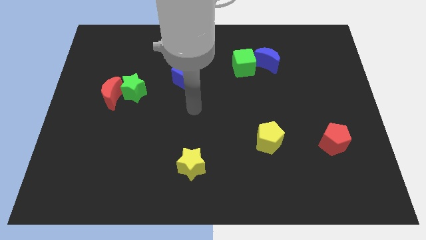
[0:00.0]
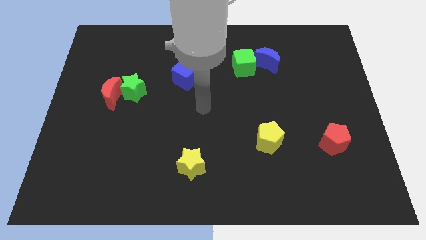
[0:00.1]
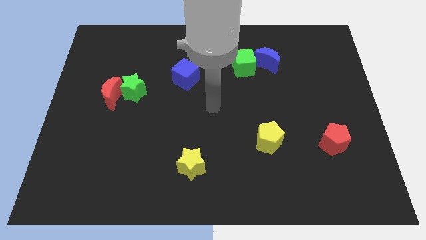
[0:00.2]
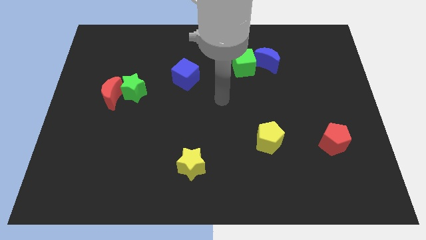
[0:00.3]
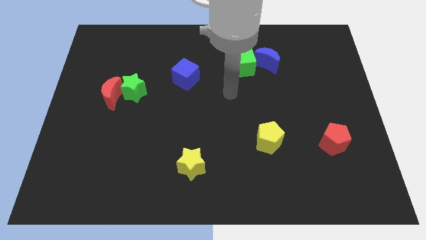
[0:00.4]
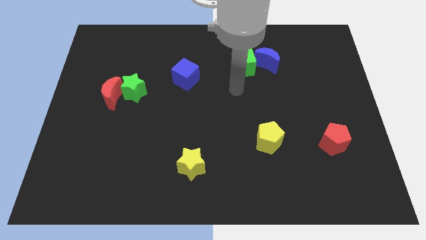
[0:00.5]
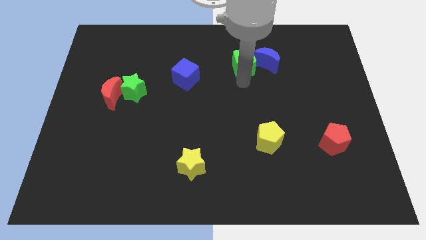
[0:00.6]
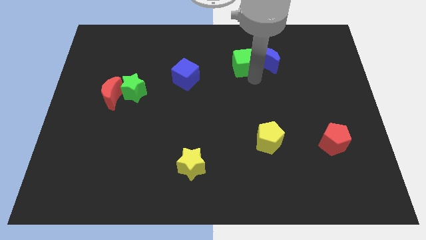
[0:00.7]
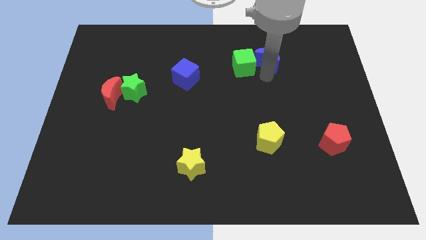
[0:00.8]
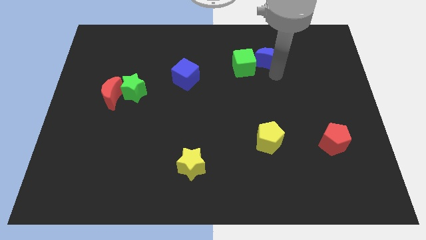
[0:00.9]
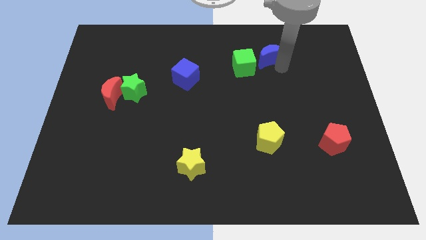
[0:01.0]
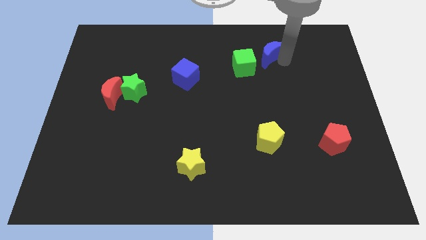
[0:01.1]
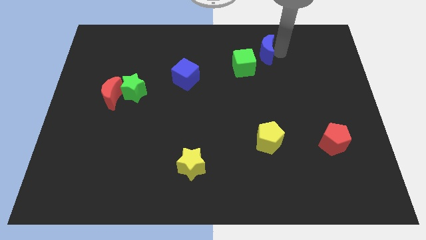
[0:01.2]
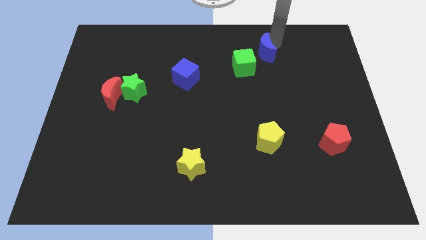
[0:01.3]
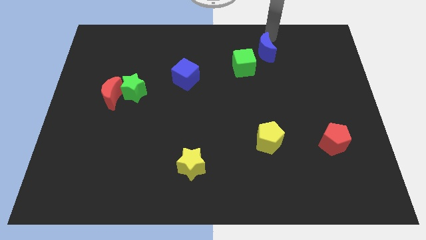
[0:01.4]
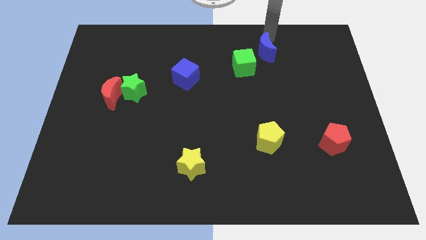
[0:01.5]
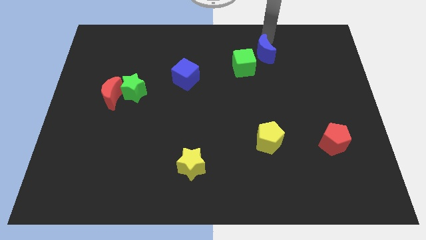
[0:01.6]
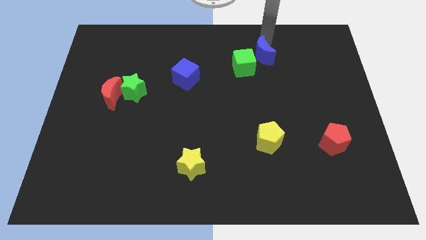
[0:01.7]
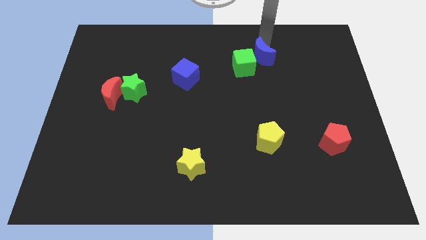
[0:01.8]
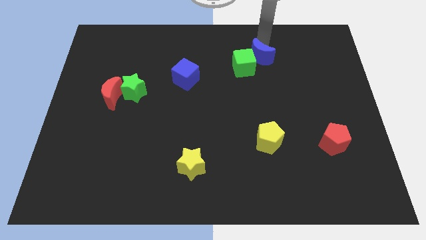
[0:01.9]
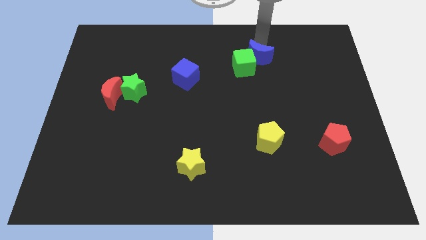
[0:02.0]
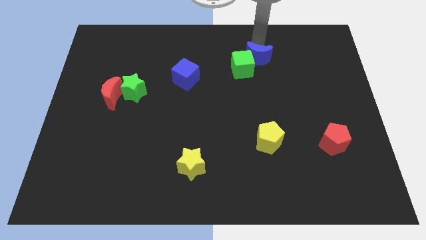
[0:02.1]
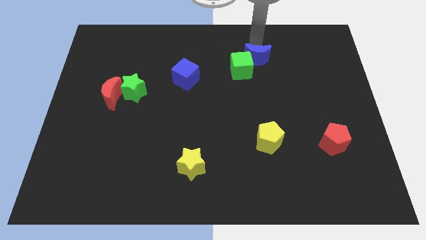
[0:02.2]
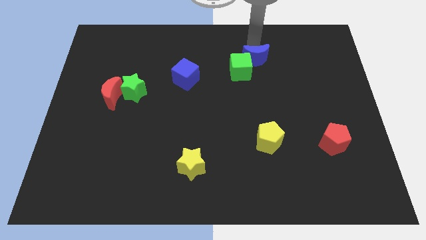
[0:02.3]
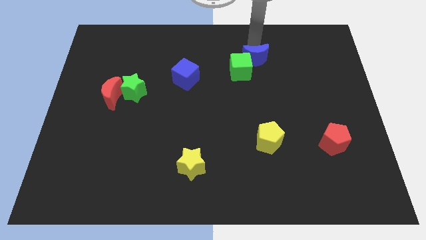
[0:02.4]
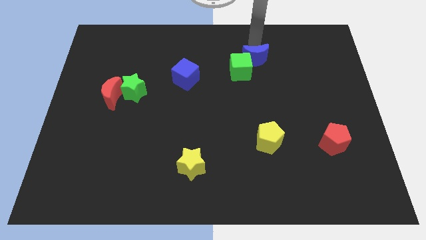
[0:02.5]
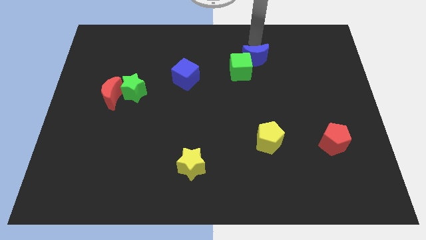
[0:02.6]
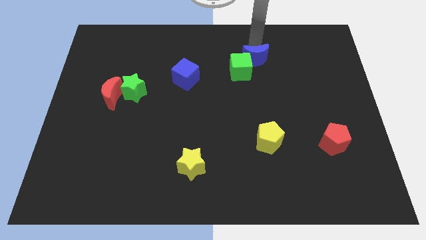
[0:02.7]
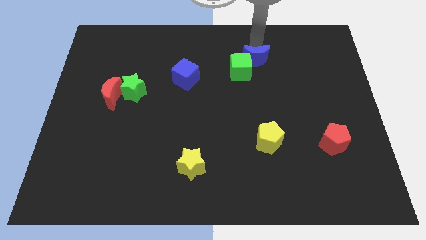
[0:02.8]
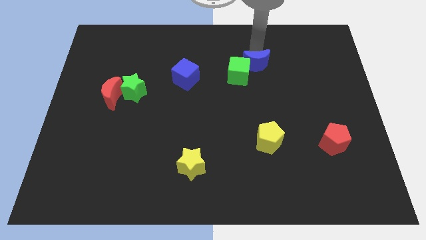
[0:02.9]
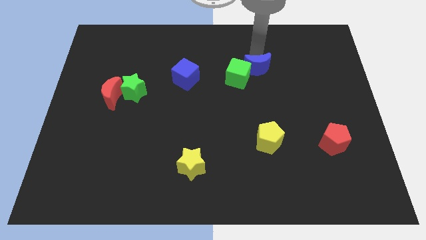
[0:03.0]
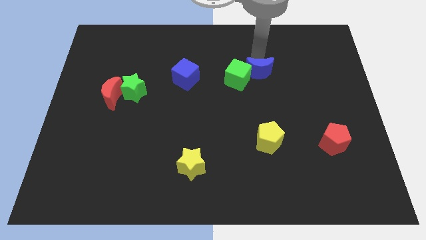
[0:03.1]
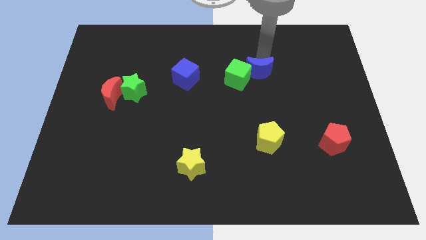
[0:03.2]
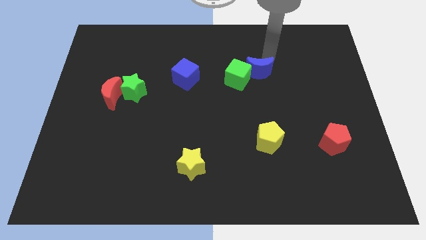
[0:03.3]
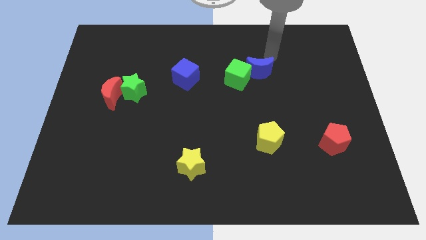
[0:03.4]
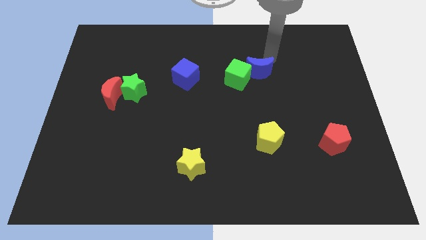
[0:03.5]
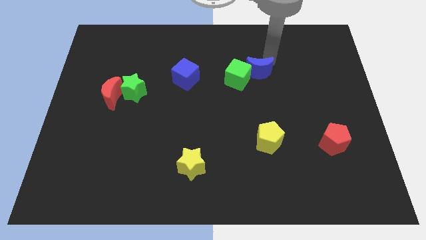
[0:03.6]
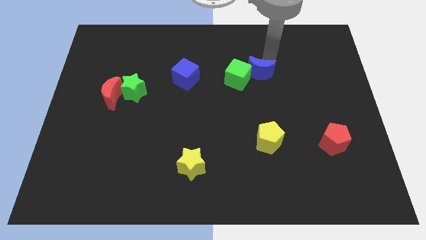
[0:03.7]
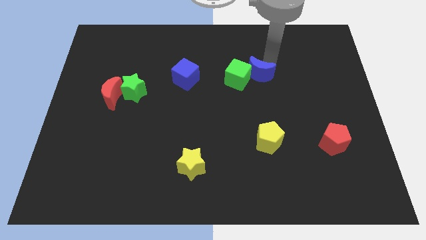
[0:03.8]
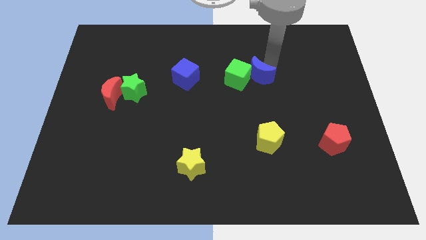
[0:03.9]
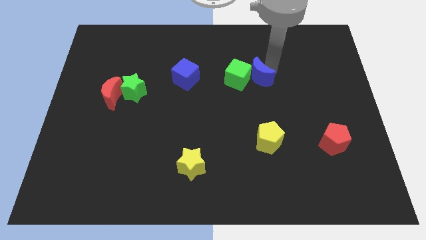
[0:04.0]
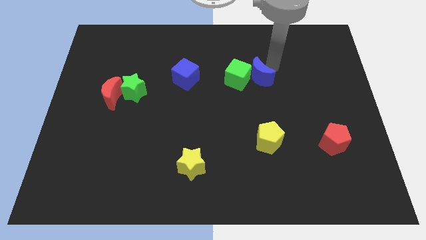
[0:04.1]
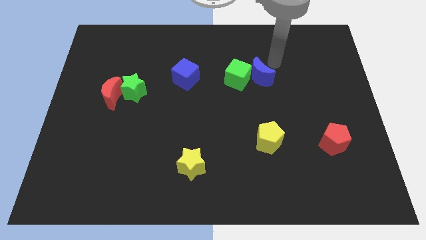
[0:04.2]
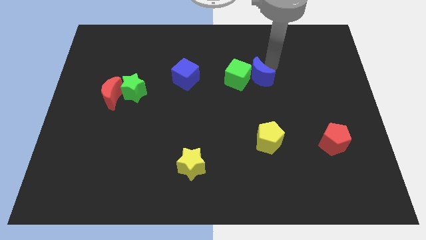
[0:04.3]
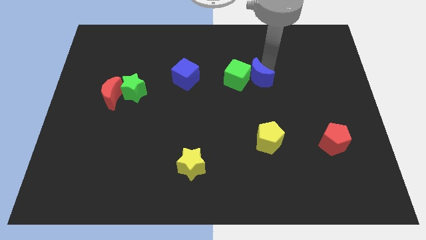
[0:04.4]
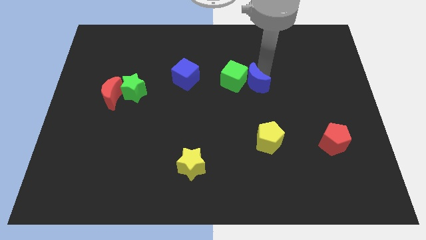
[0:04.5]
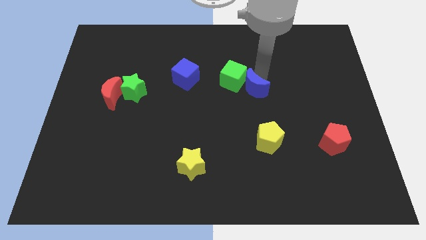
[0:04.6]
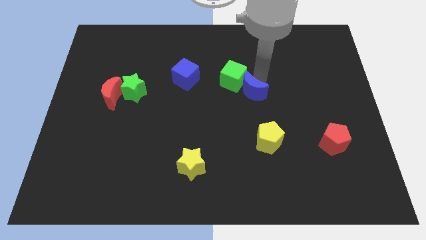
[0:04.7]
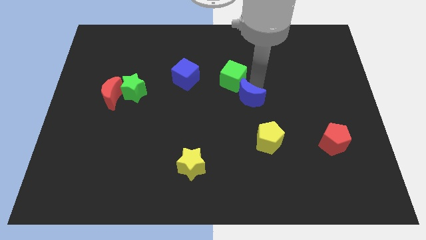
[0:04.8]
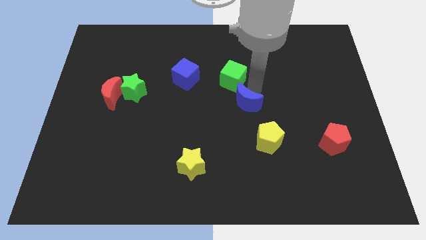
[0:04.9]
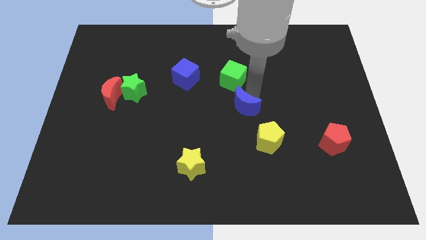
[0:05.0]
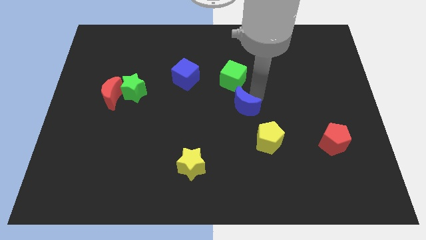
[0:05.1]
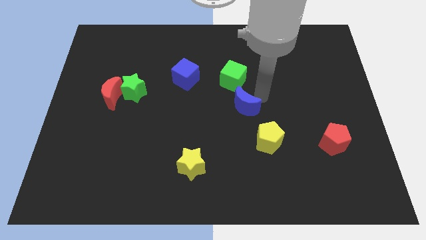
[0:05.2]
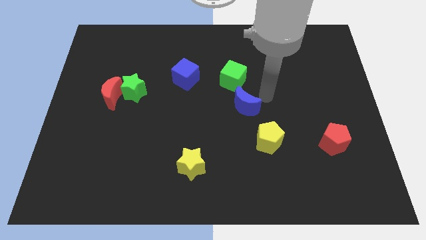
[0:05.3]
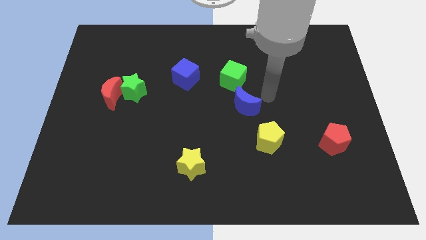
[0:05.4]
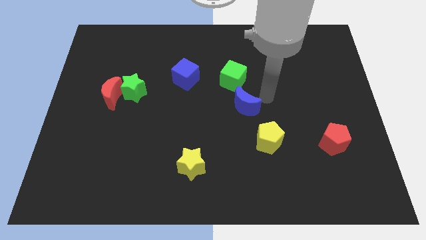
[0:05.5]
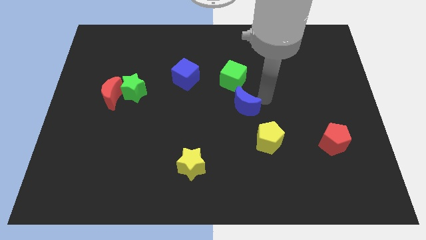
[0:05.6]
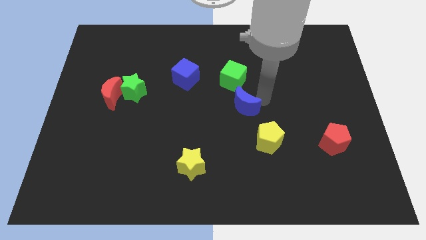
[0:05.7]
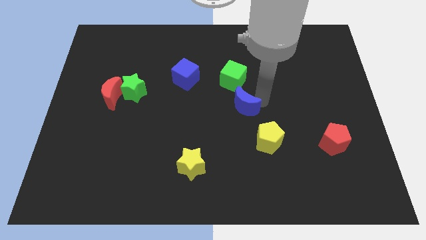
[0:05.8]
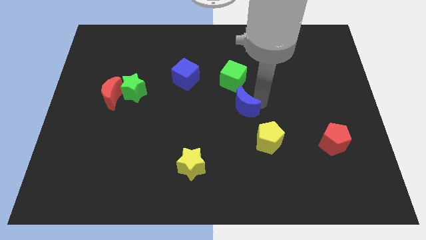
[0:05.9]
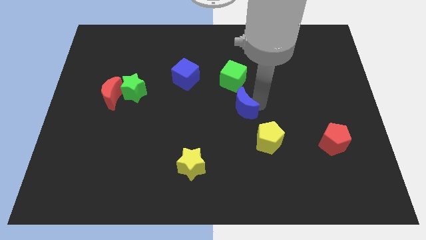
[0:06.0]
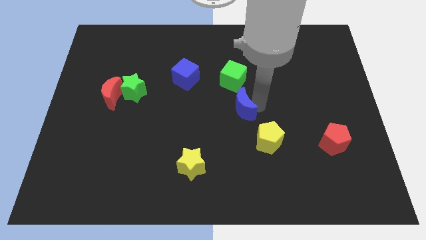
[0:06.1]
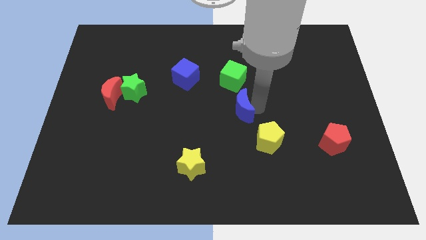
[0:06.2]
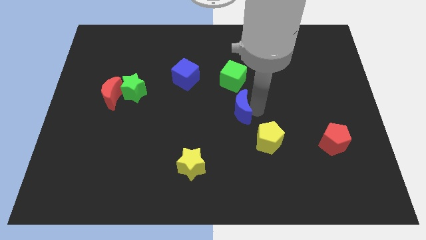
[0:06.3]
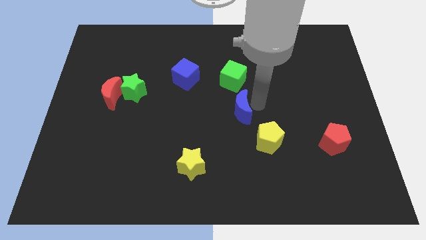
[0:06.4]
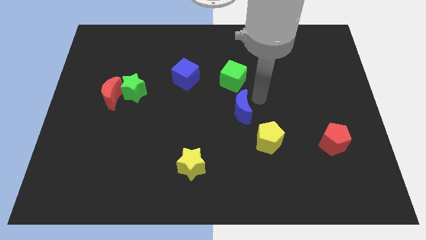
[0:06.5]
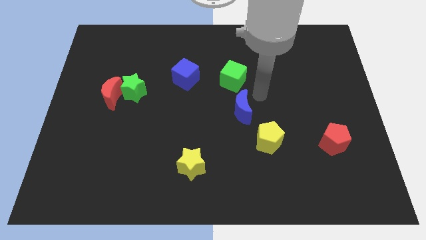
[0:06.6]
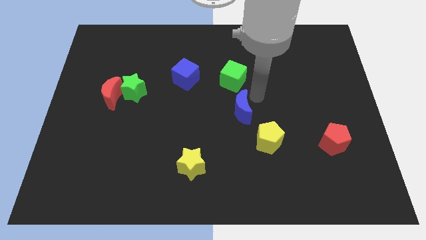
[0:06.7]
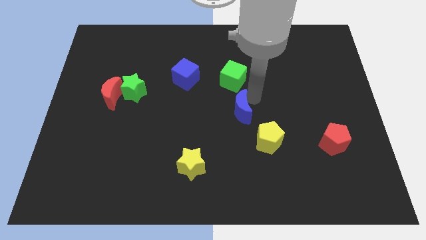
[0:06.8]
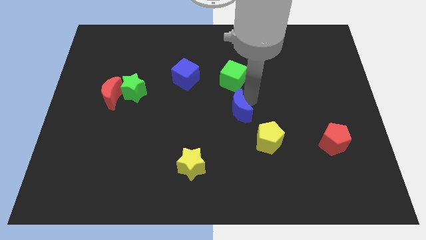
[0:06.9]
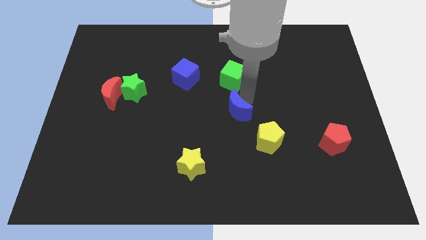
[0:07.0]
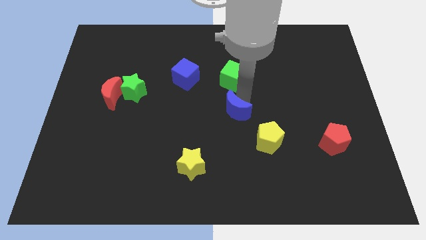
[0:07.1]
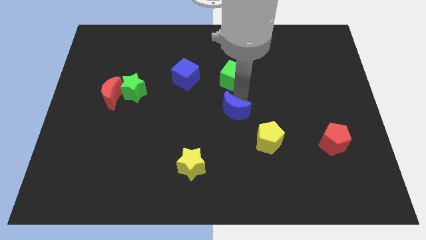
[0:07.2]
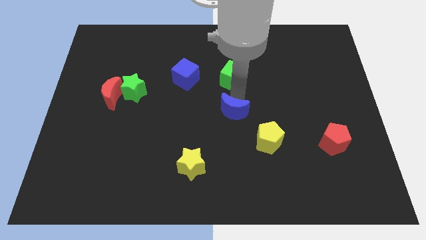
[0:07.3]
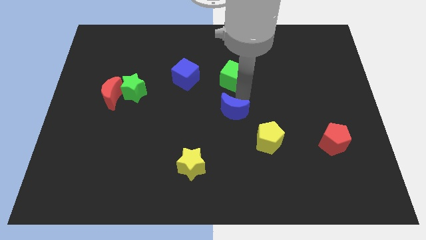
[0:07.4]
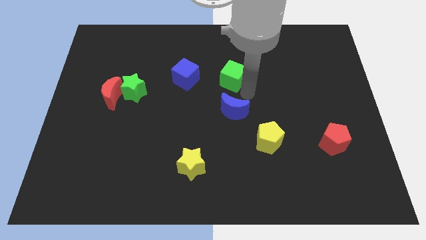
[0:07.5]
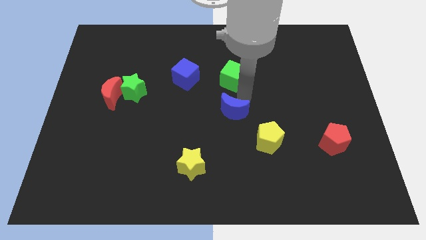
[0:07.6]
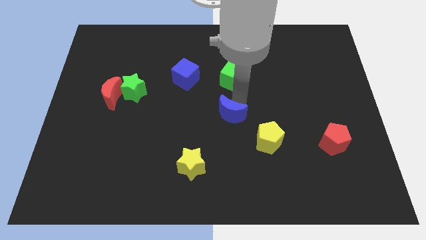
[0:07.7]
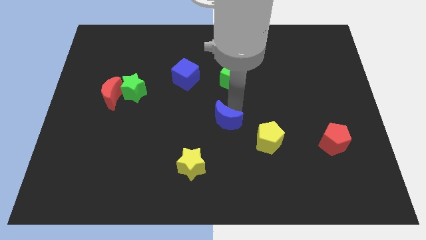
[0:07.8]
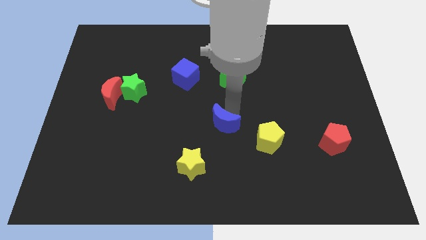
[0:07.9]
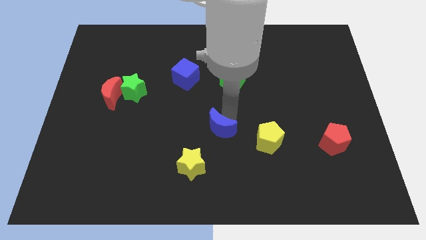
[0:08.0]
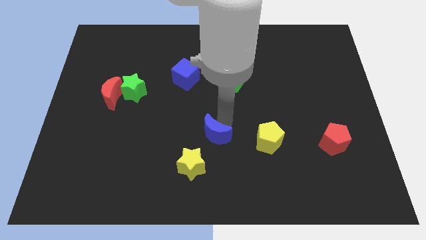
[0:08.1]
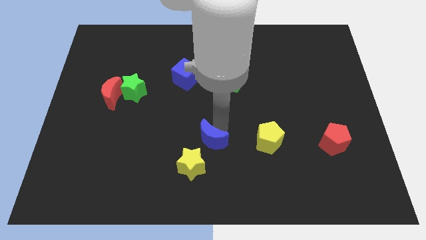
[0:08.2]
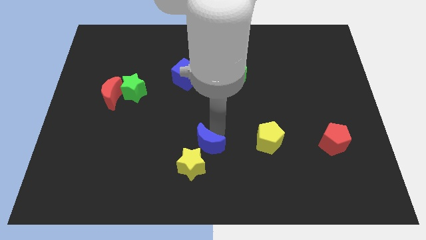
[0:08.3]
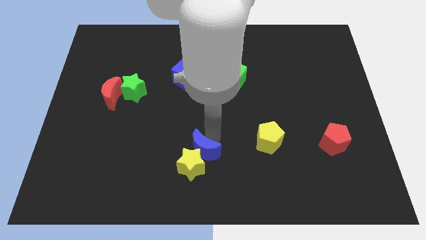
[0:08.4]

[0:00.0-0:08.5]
put the blue moon next to the yellow star
